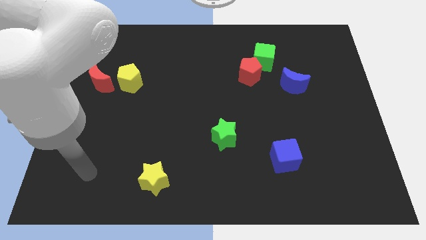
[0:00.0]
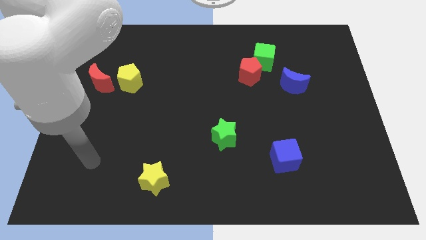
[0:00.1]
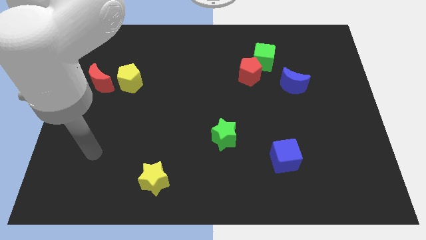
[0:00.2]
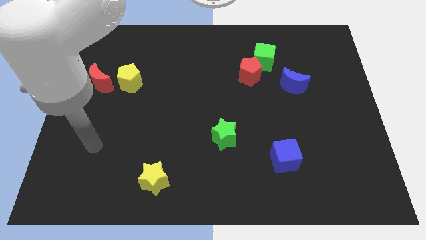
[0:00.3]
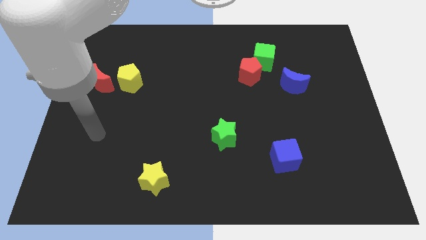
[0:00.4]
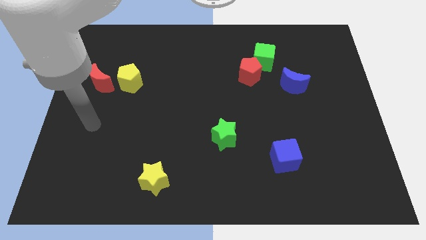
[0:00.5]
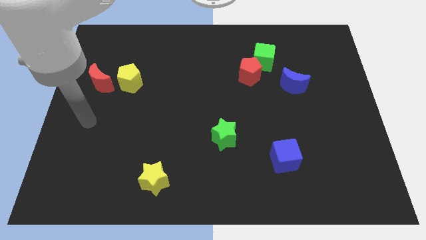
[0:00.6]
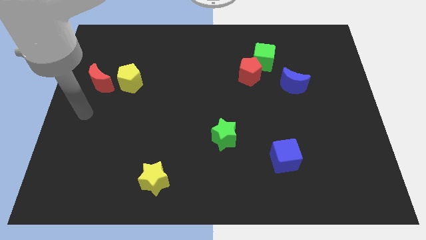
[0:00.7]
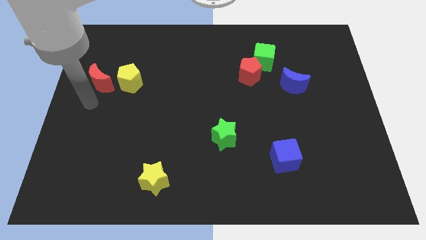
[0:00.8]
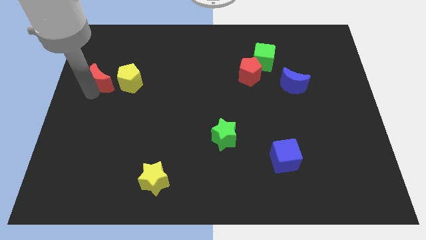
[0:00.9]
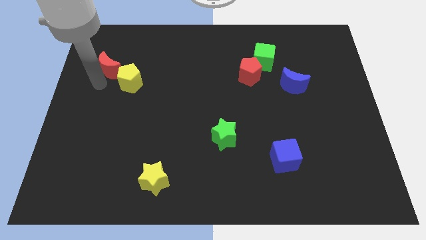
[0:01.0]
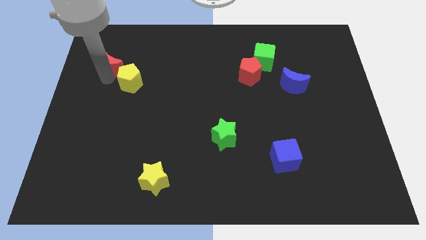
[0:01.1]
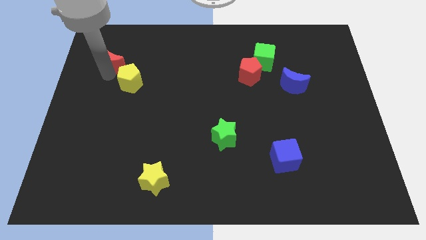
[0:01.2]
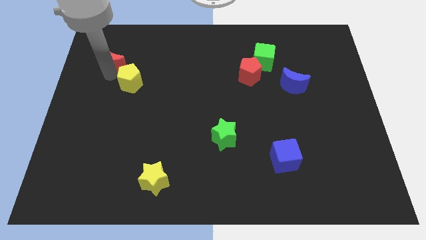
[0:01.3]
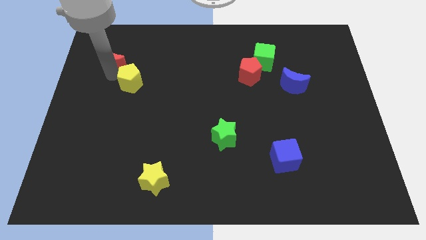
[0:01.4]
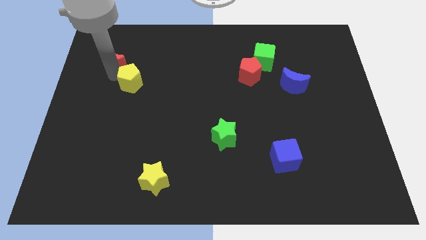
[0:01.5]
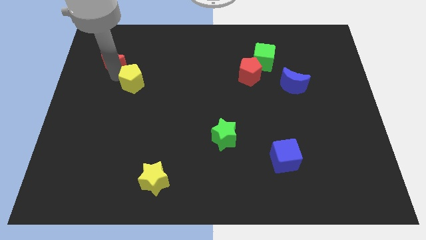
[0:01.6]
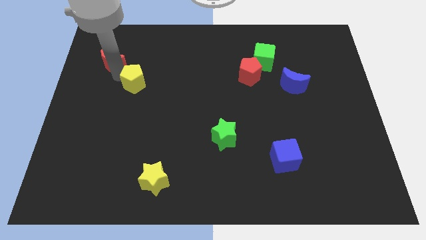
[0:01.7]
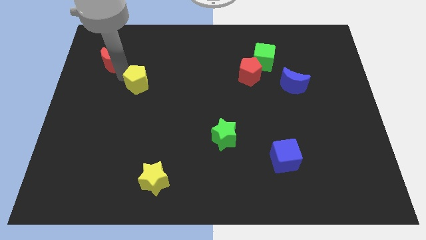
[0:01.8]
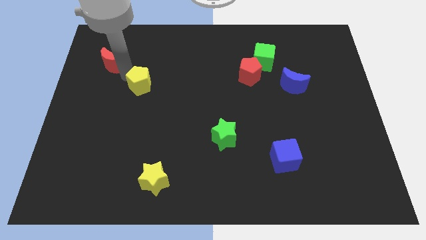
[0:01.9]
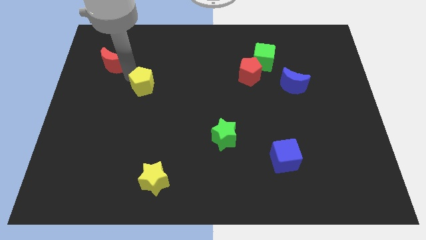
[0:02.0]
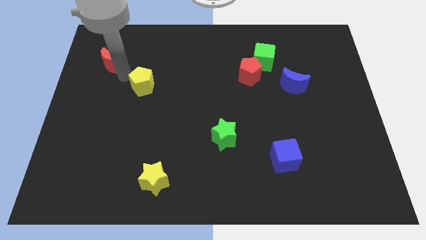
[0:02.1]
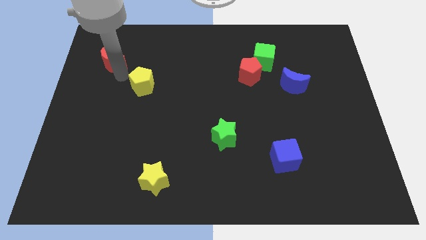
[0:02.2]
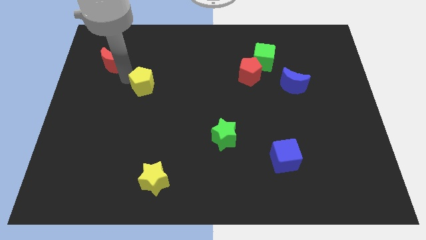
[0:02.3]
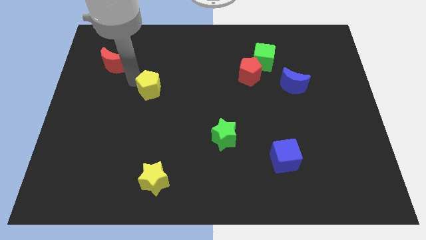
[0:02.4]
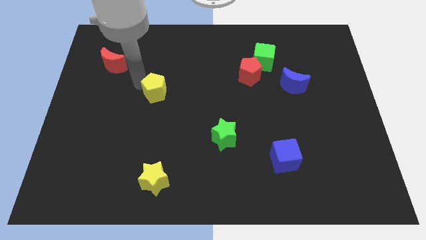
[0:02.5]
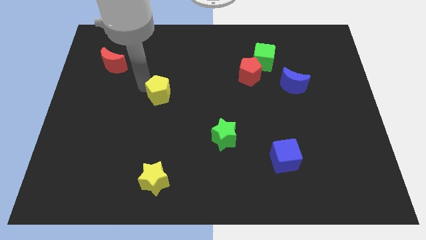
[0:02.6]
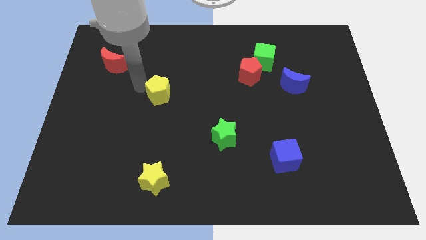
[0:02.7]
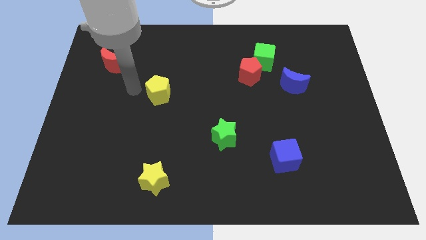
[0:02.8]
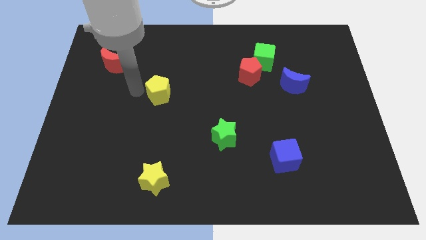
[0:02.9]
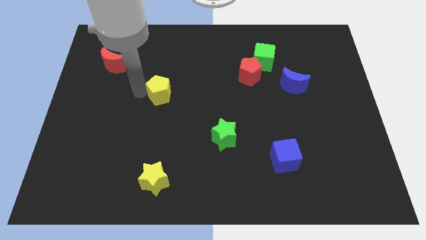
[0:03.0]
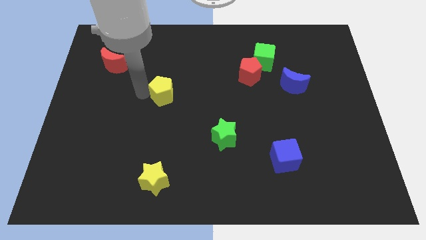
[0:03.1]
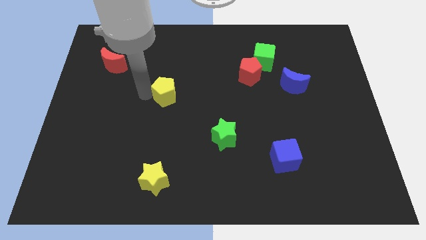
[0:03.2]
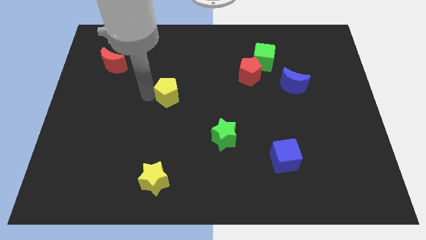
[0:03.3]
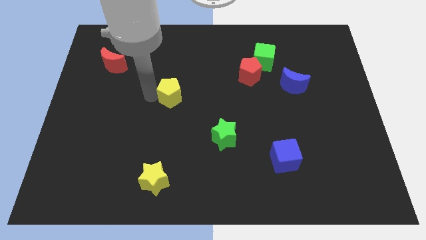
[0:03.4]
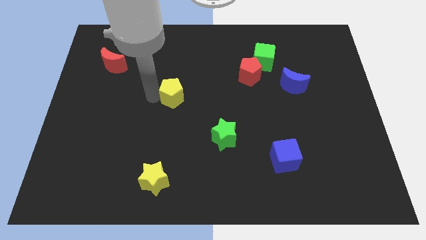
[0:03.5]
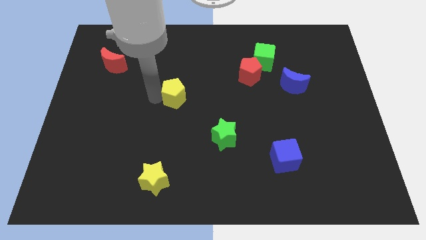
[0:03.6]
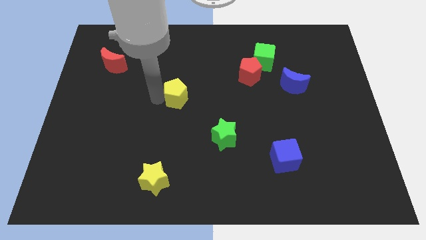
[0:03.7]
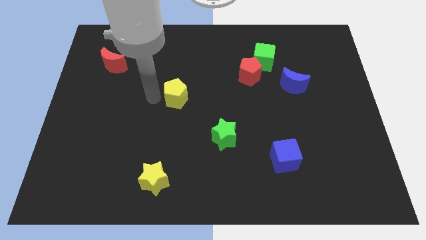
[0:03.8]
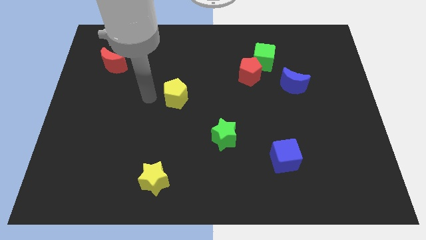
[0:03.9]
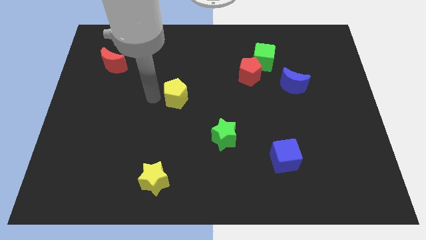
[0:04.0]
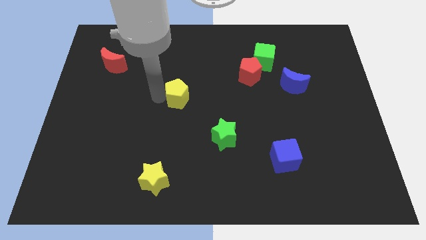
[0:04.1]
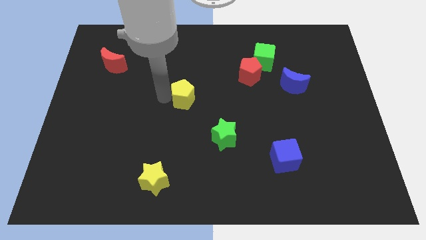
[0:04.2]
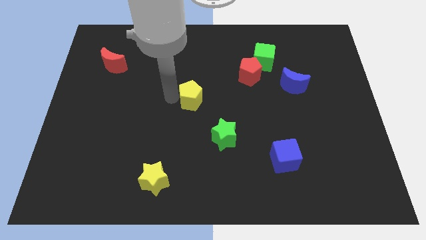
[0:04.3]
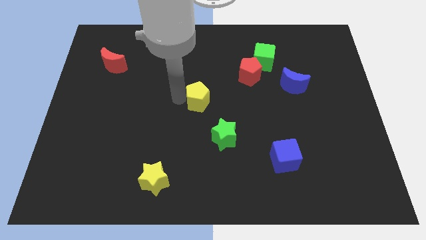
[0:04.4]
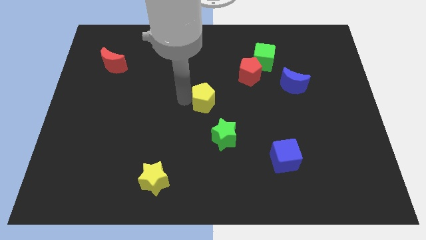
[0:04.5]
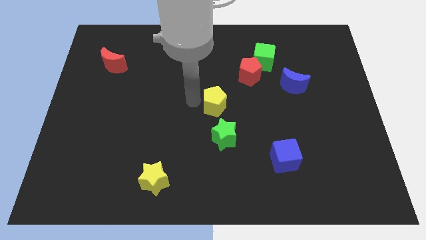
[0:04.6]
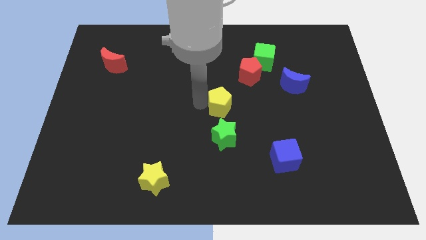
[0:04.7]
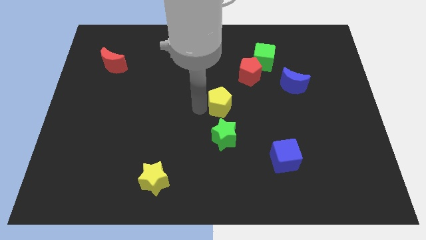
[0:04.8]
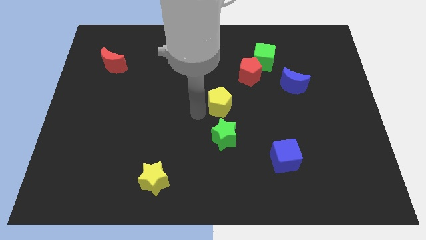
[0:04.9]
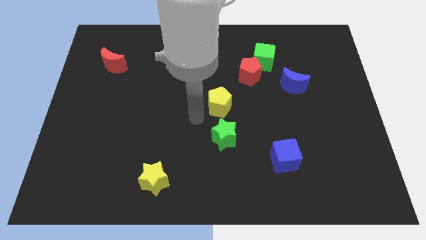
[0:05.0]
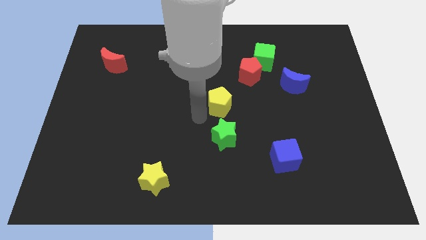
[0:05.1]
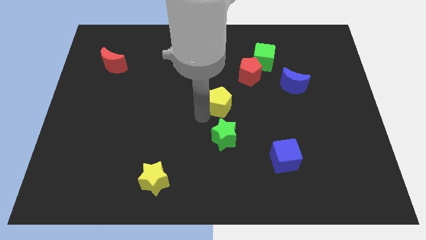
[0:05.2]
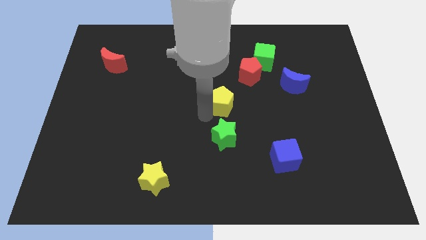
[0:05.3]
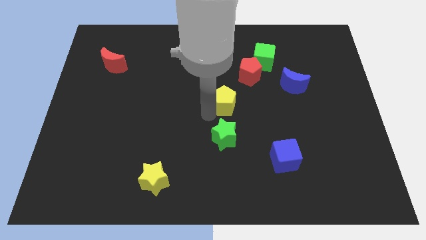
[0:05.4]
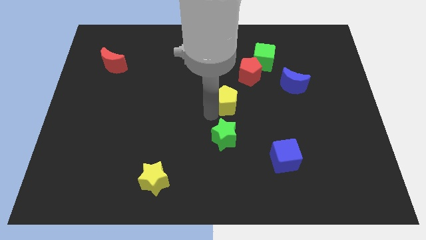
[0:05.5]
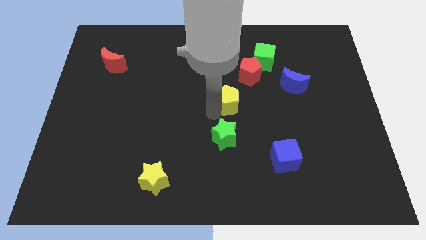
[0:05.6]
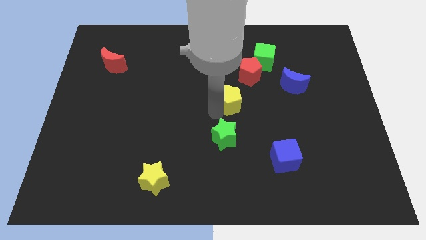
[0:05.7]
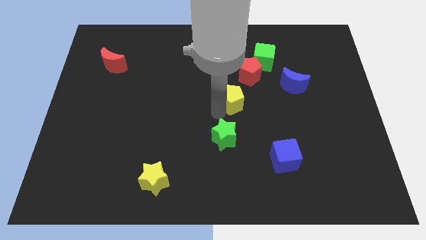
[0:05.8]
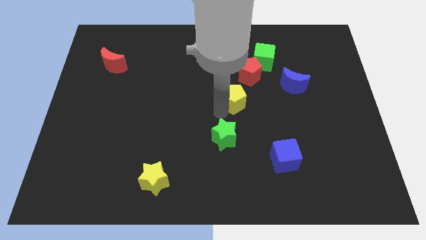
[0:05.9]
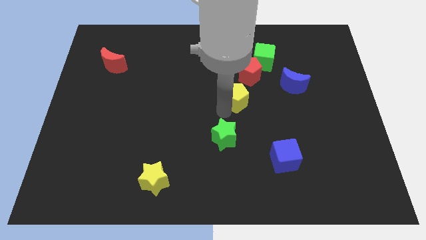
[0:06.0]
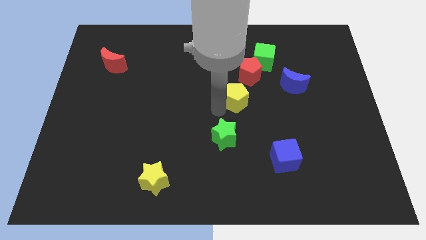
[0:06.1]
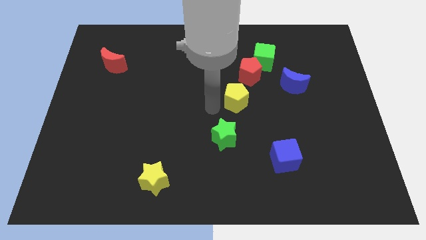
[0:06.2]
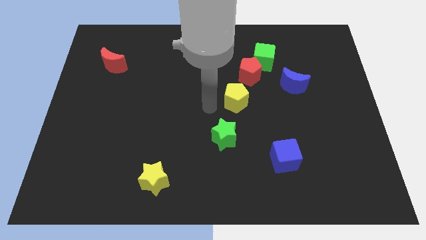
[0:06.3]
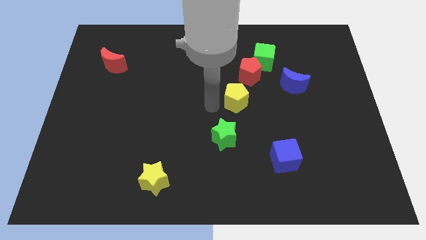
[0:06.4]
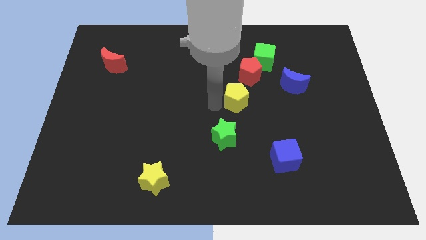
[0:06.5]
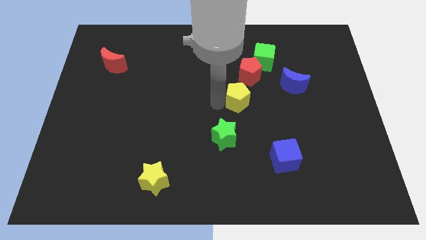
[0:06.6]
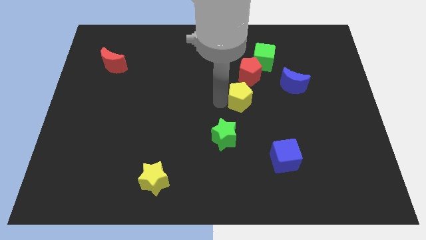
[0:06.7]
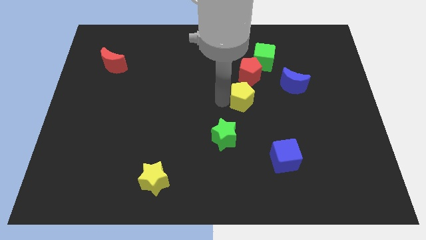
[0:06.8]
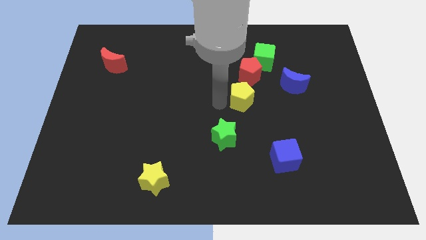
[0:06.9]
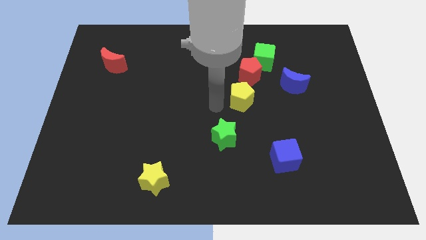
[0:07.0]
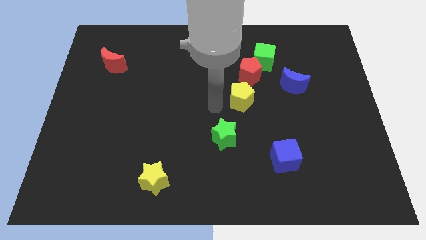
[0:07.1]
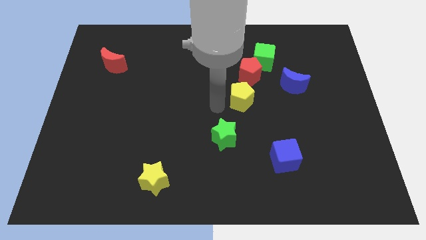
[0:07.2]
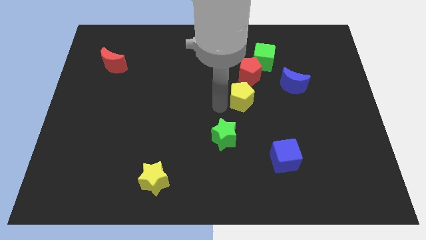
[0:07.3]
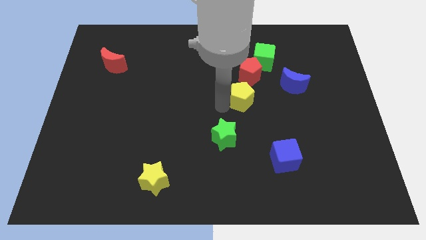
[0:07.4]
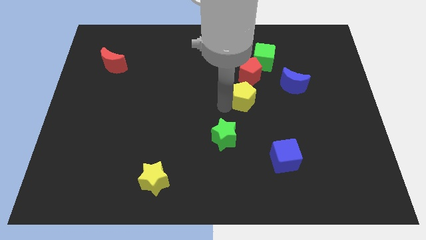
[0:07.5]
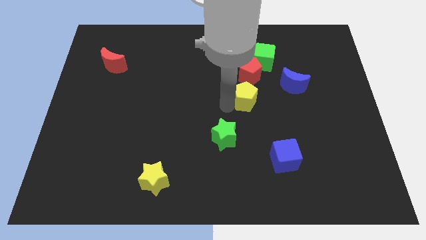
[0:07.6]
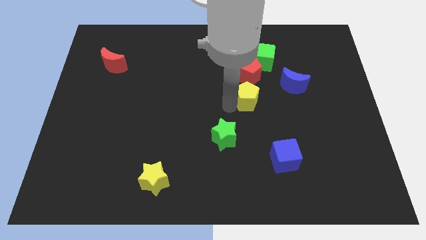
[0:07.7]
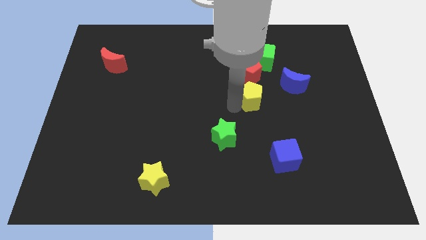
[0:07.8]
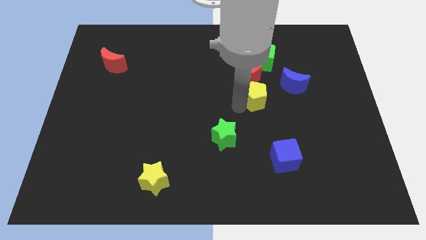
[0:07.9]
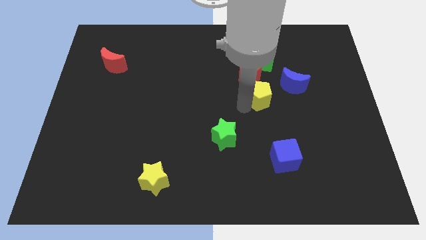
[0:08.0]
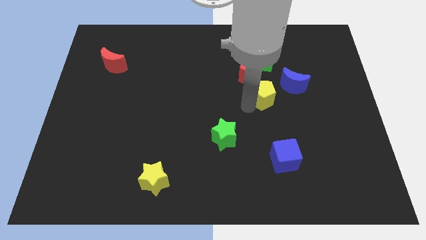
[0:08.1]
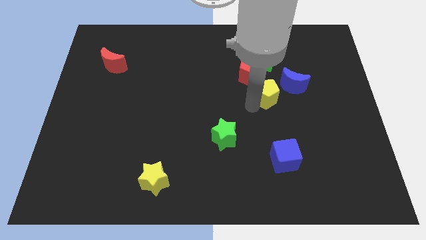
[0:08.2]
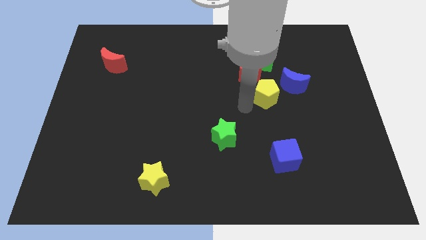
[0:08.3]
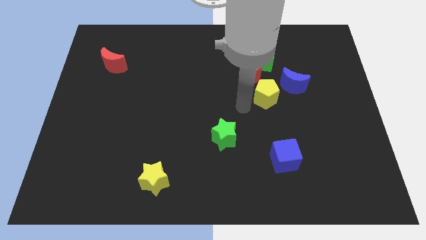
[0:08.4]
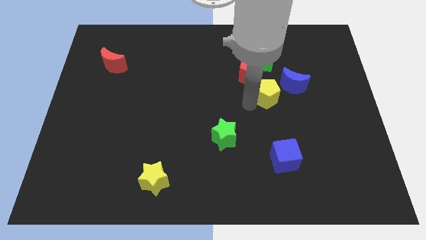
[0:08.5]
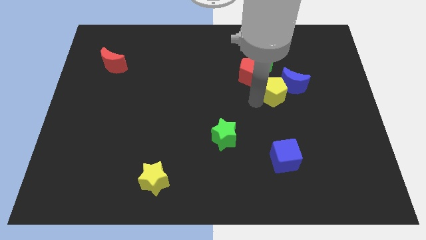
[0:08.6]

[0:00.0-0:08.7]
slide the yellow pentagon towards the blue moon
